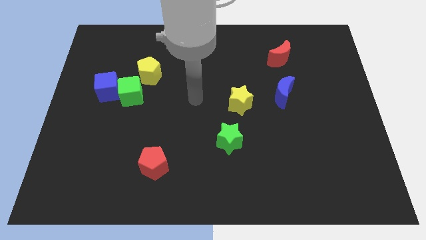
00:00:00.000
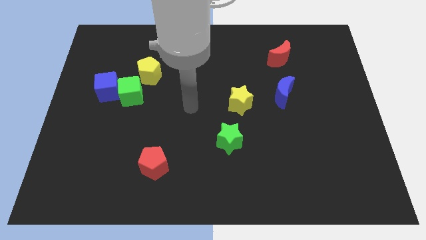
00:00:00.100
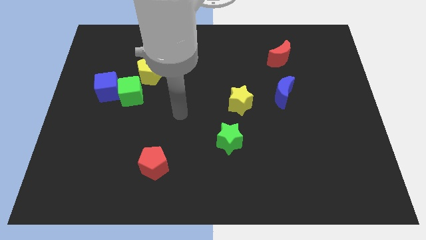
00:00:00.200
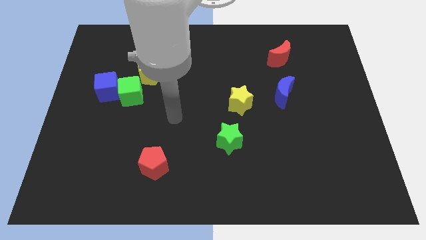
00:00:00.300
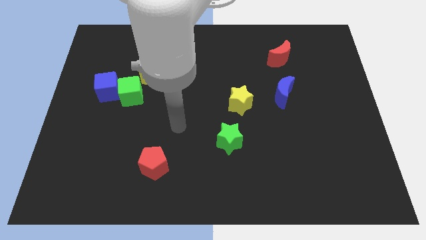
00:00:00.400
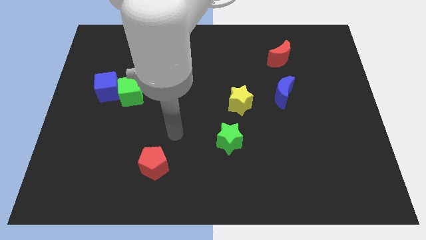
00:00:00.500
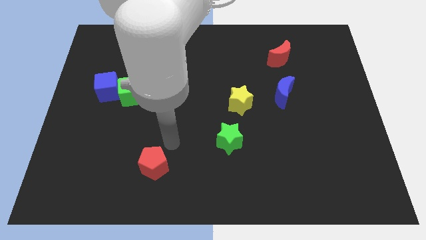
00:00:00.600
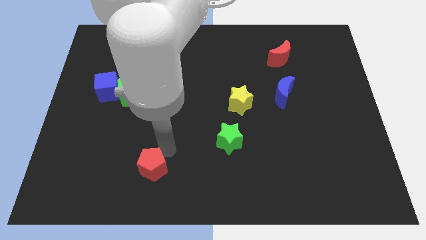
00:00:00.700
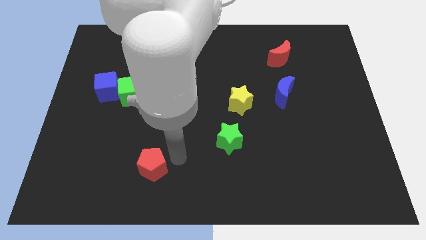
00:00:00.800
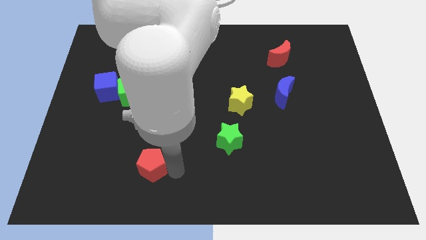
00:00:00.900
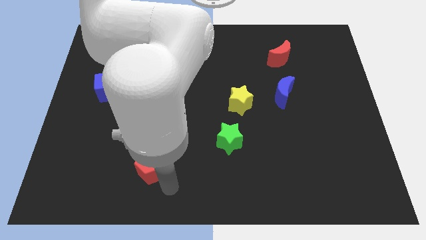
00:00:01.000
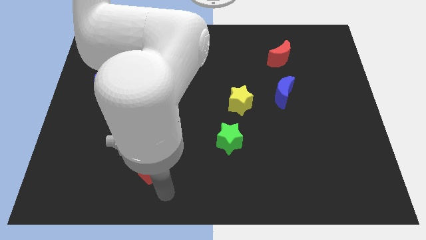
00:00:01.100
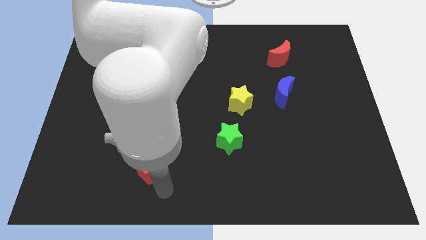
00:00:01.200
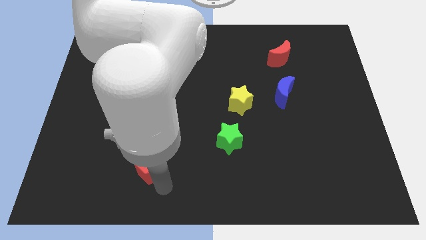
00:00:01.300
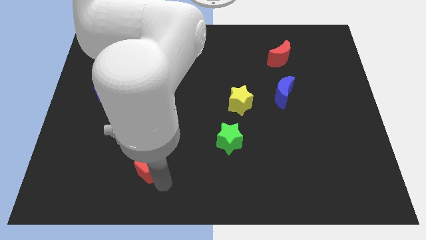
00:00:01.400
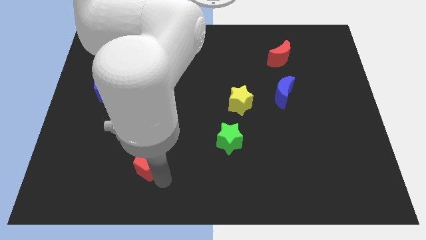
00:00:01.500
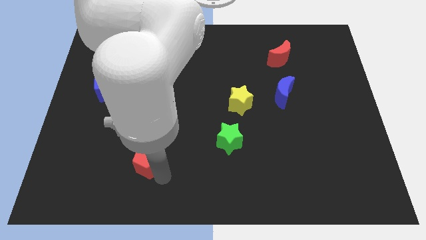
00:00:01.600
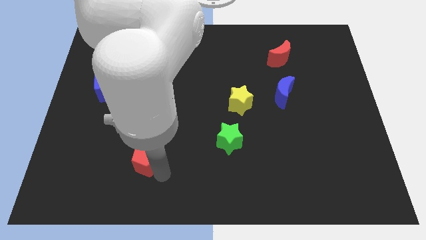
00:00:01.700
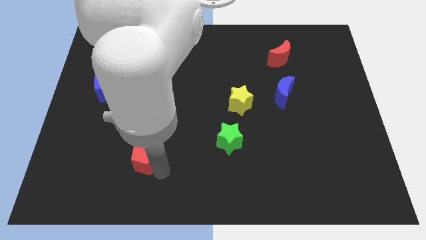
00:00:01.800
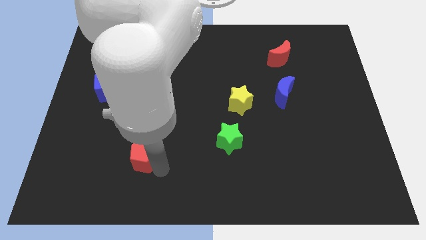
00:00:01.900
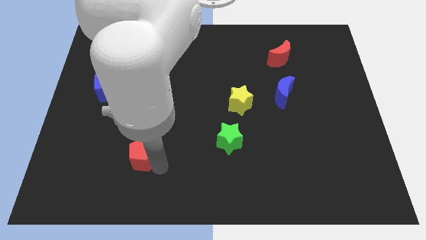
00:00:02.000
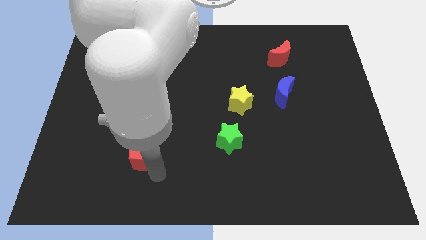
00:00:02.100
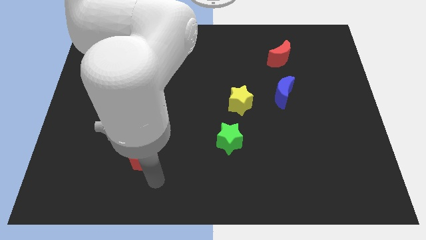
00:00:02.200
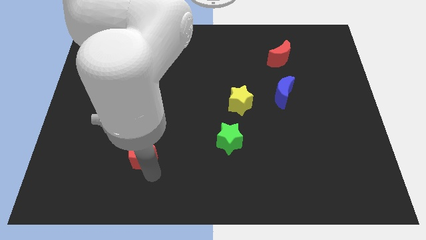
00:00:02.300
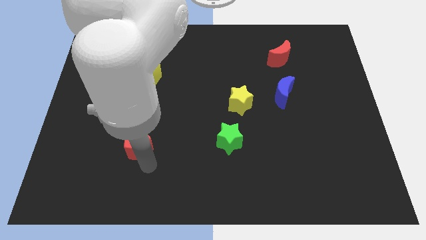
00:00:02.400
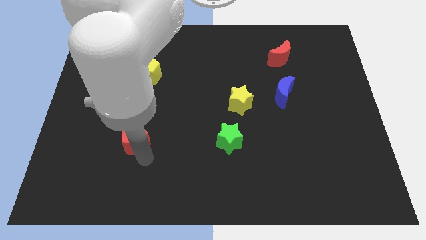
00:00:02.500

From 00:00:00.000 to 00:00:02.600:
slide the red pentagon diagonally upwards and to the left somewhat

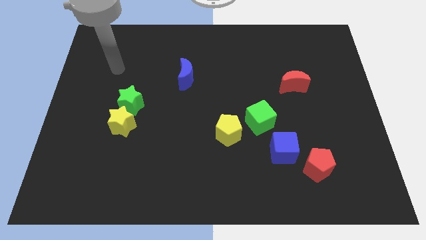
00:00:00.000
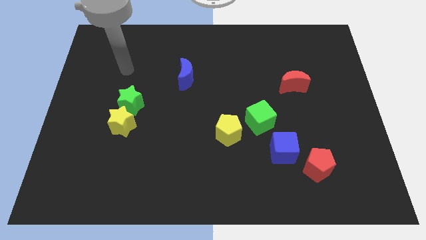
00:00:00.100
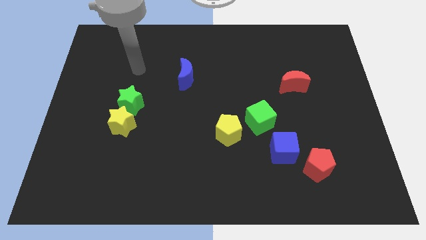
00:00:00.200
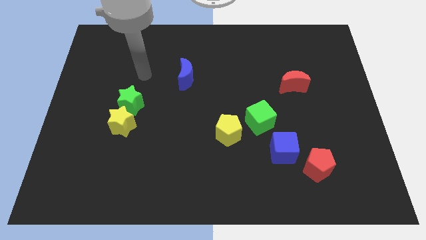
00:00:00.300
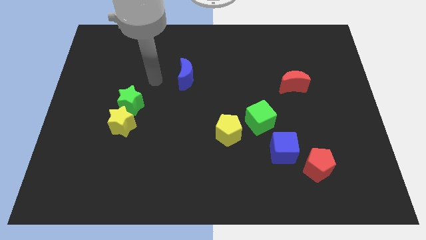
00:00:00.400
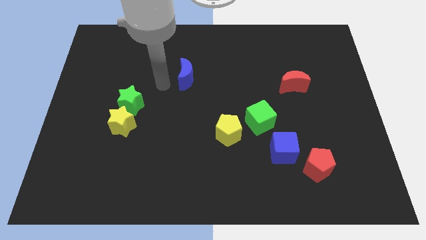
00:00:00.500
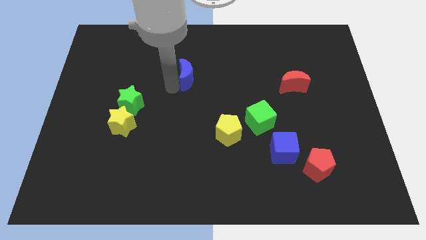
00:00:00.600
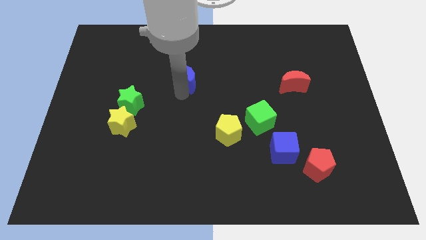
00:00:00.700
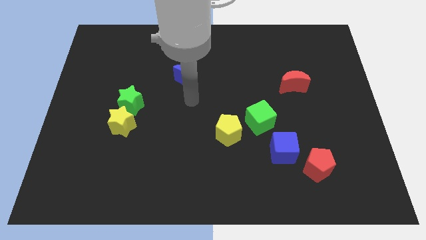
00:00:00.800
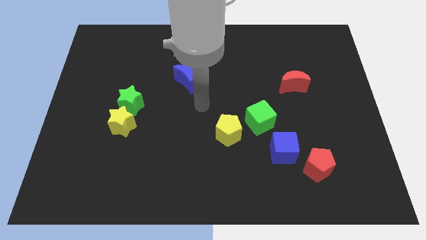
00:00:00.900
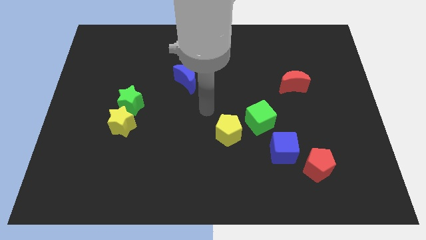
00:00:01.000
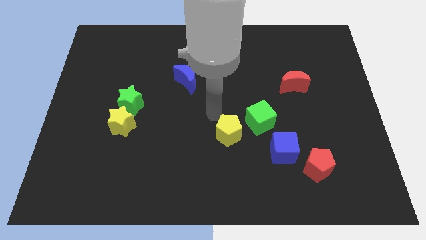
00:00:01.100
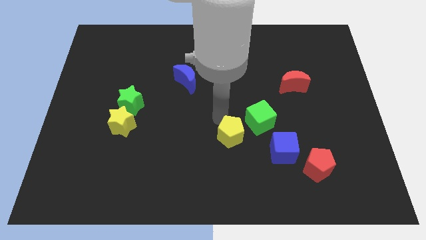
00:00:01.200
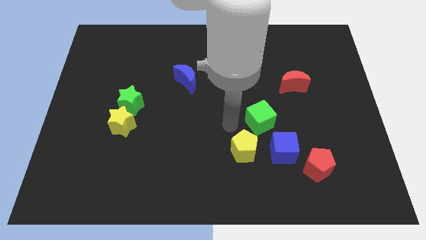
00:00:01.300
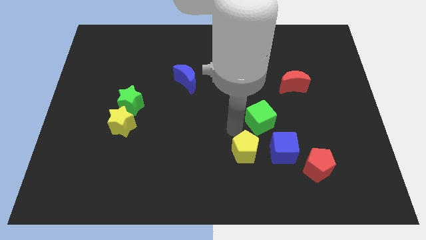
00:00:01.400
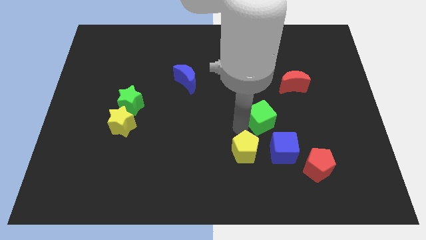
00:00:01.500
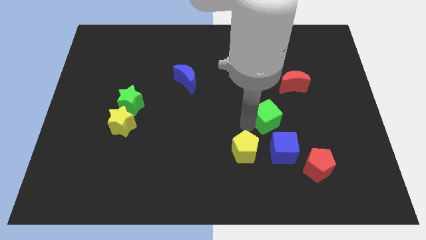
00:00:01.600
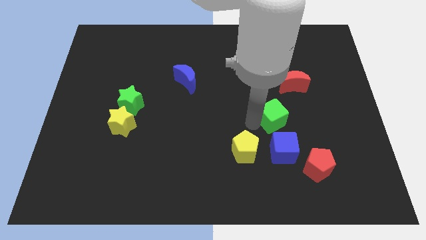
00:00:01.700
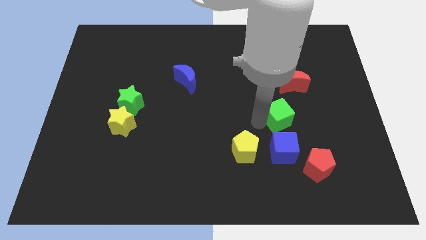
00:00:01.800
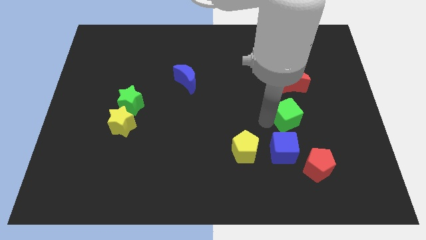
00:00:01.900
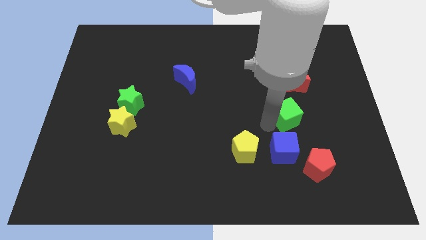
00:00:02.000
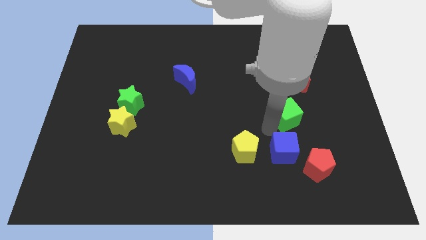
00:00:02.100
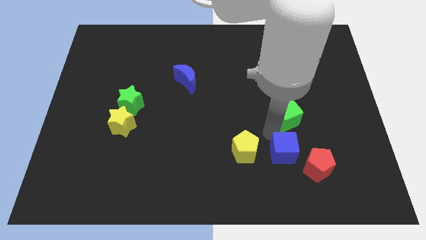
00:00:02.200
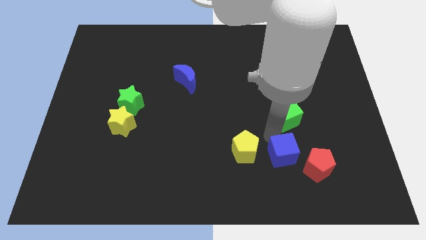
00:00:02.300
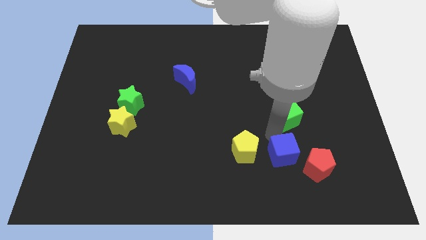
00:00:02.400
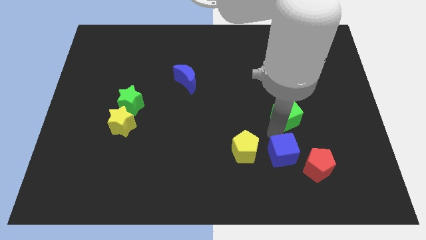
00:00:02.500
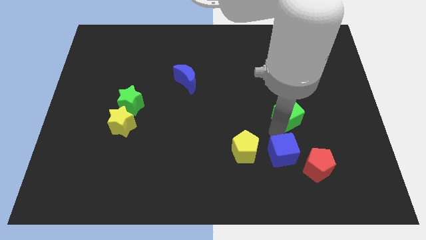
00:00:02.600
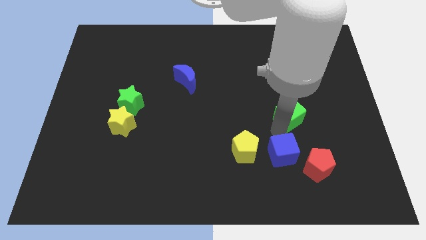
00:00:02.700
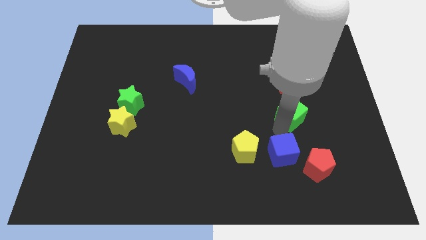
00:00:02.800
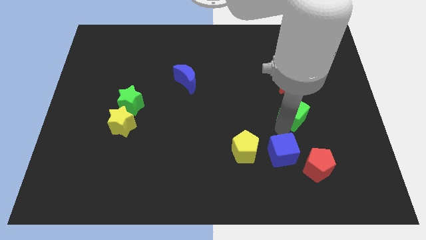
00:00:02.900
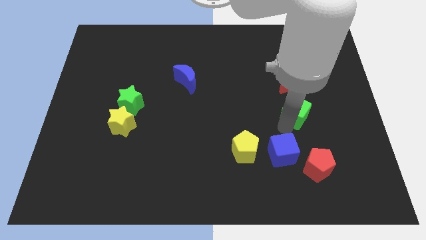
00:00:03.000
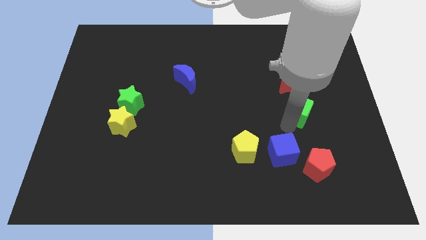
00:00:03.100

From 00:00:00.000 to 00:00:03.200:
move the green cube upwards and to the right a little bit

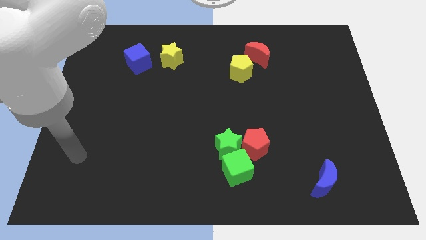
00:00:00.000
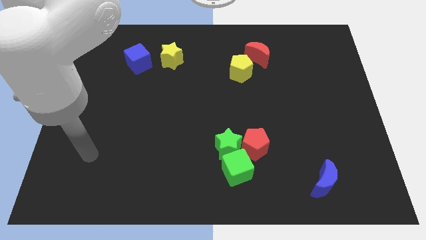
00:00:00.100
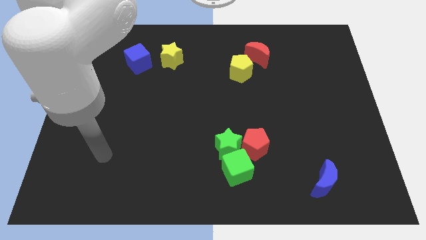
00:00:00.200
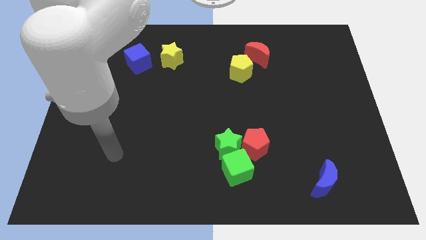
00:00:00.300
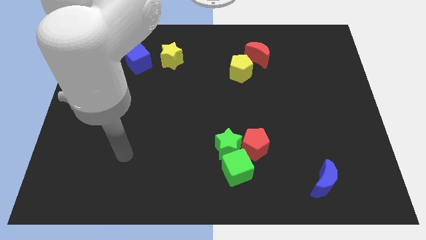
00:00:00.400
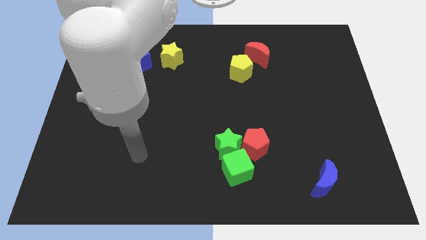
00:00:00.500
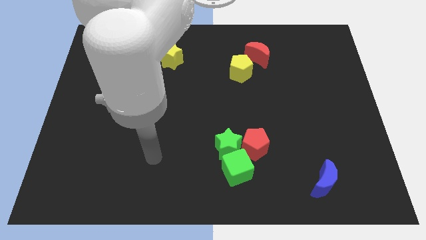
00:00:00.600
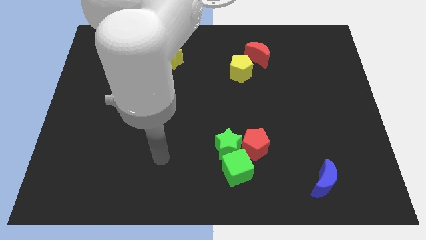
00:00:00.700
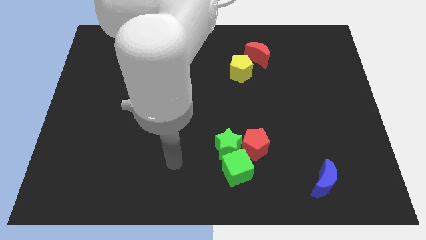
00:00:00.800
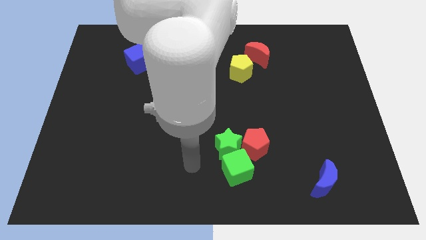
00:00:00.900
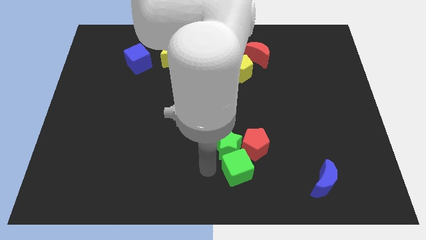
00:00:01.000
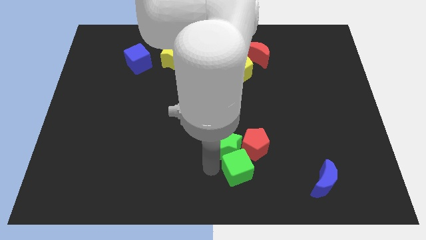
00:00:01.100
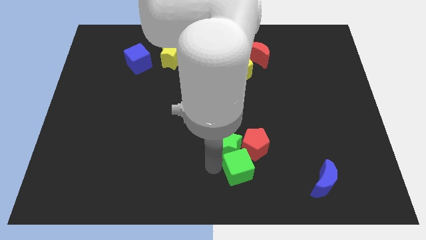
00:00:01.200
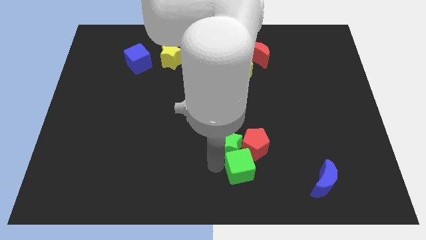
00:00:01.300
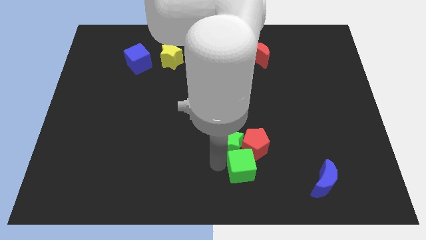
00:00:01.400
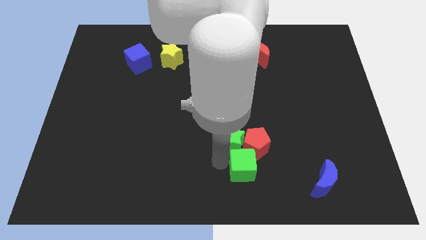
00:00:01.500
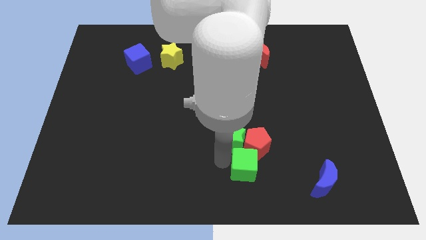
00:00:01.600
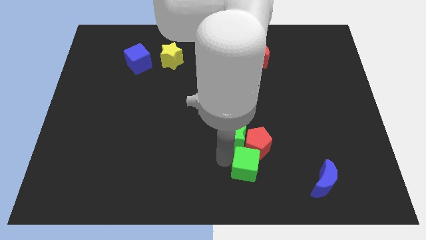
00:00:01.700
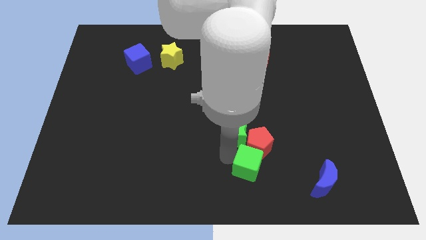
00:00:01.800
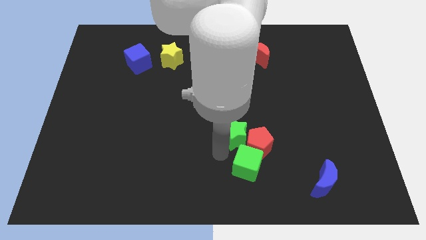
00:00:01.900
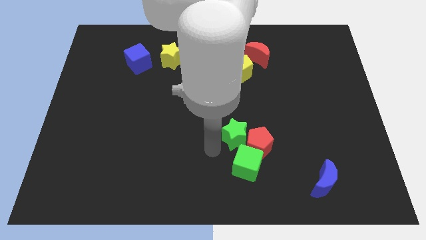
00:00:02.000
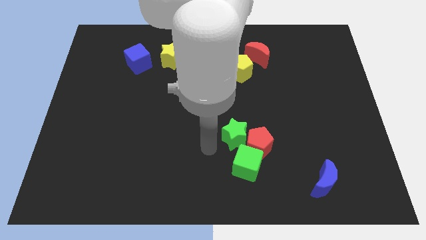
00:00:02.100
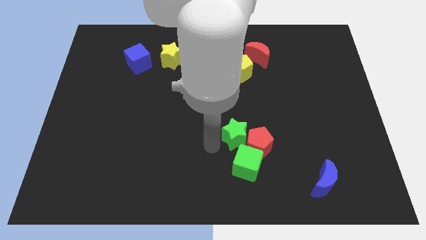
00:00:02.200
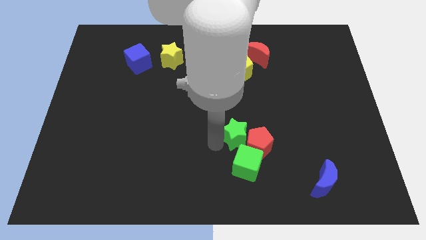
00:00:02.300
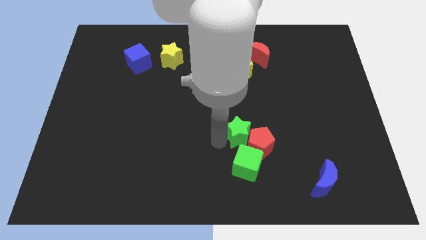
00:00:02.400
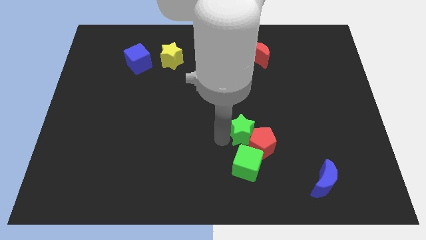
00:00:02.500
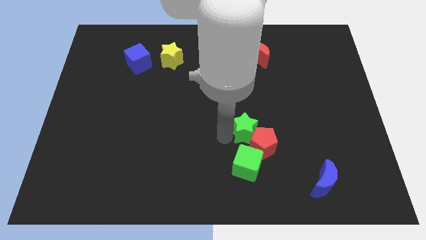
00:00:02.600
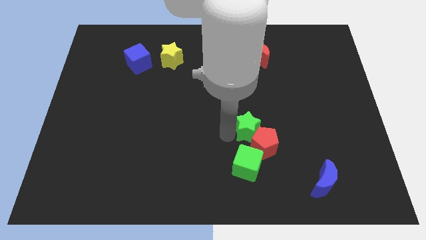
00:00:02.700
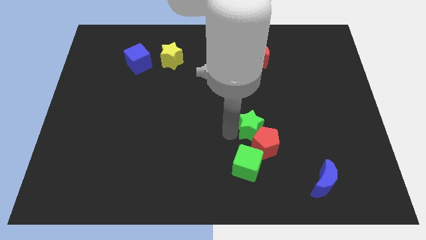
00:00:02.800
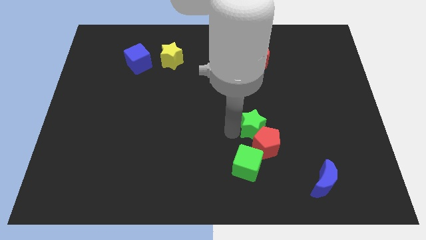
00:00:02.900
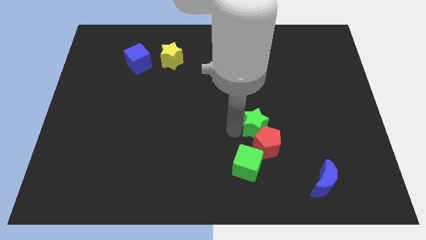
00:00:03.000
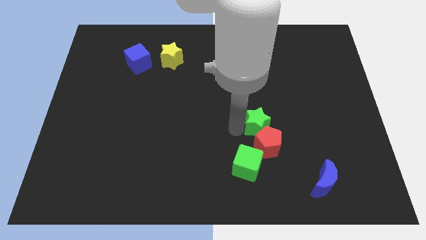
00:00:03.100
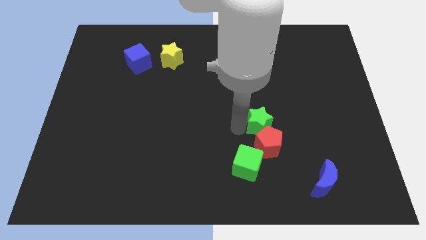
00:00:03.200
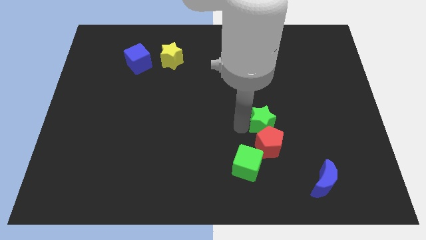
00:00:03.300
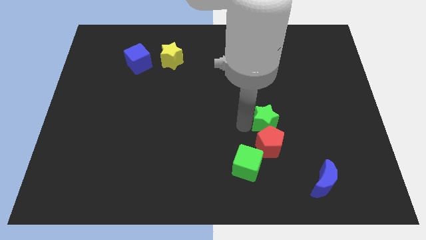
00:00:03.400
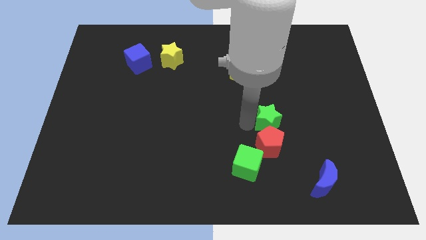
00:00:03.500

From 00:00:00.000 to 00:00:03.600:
slightly move the green star right
